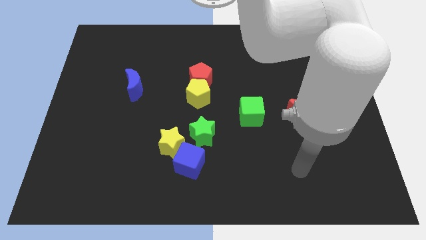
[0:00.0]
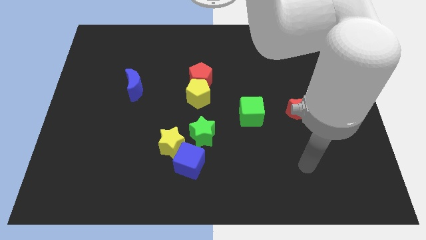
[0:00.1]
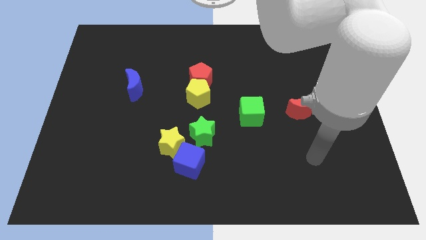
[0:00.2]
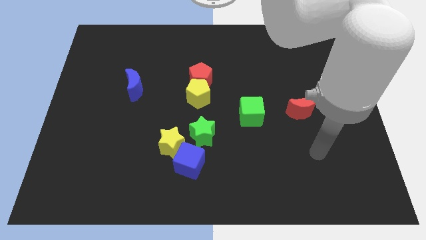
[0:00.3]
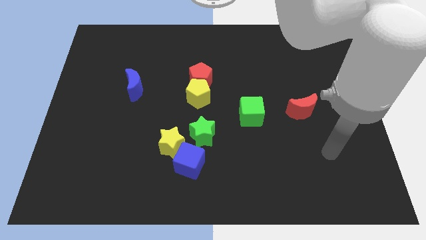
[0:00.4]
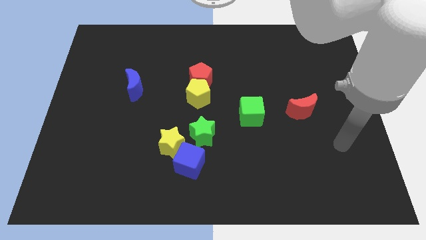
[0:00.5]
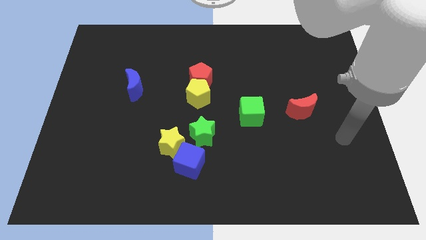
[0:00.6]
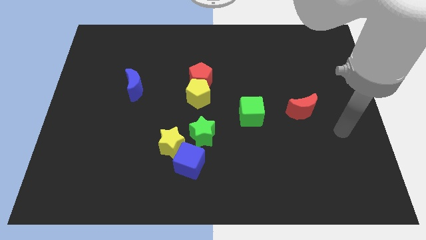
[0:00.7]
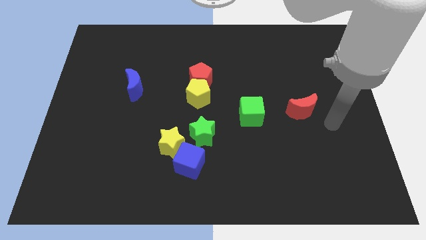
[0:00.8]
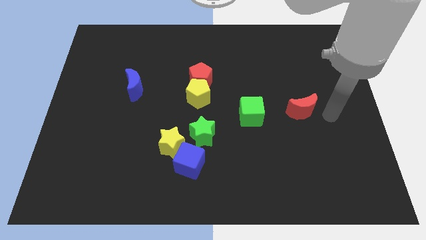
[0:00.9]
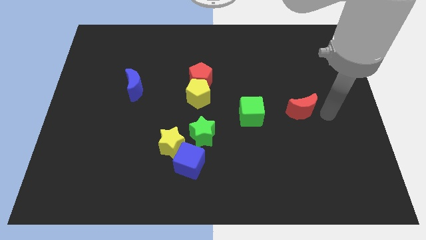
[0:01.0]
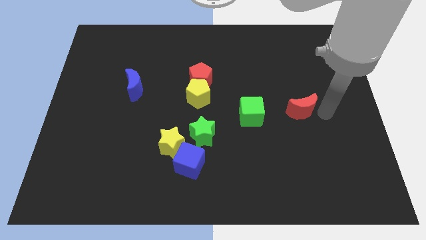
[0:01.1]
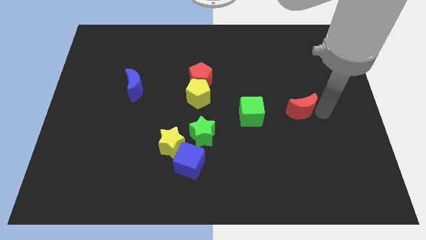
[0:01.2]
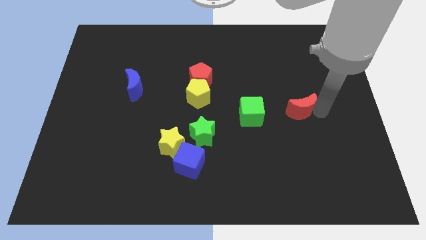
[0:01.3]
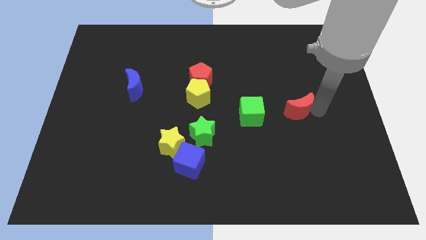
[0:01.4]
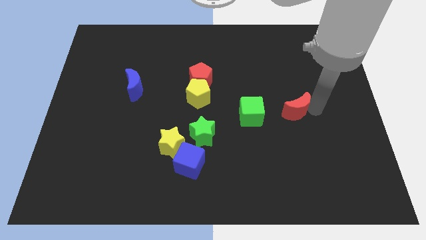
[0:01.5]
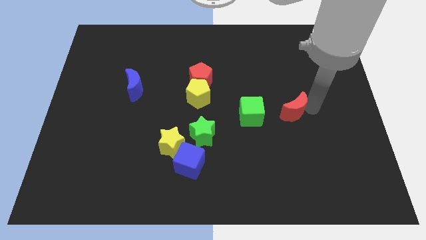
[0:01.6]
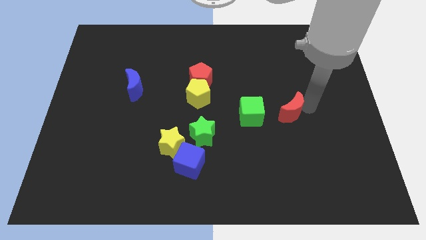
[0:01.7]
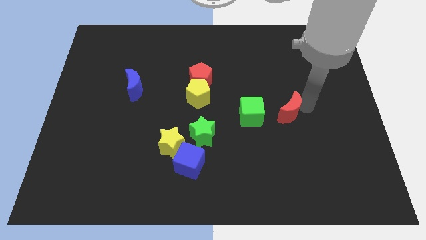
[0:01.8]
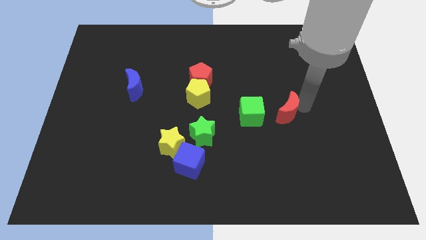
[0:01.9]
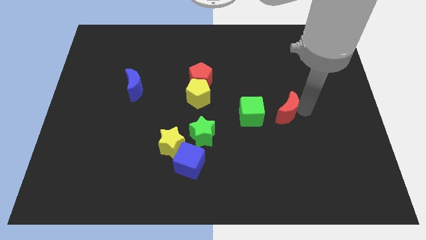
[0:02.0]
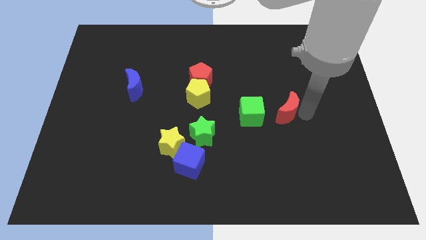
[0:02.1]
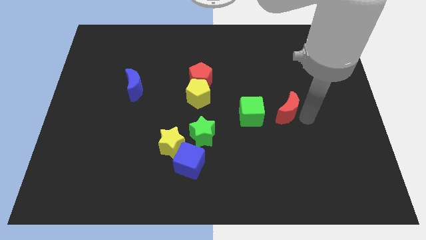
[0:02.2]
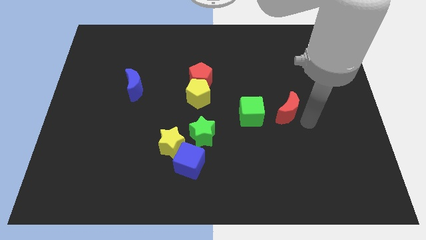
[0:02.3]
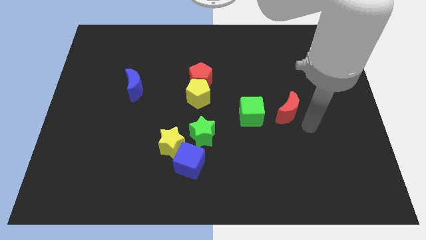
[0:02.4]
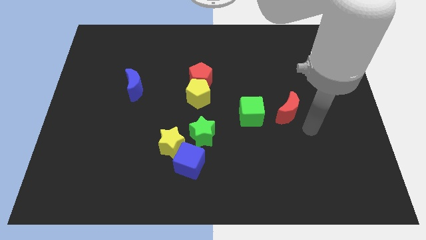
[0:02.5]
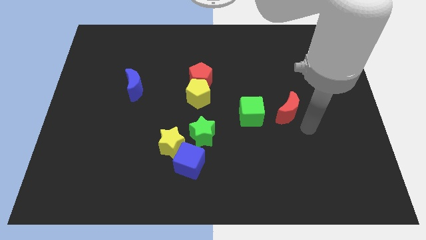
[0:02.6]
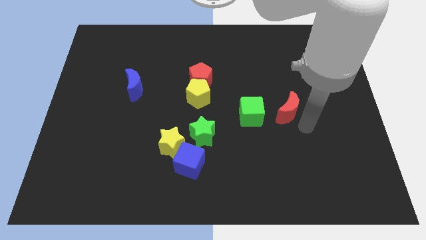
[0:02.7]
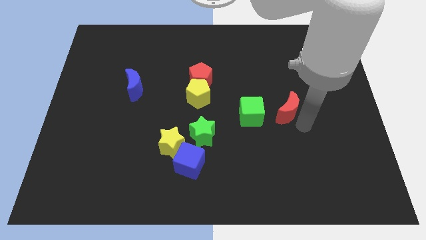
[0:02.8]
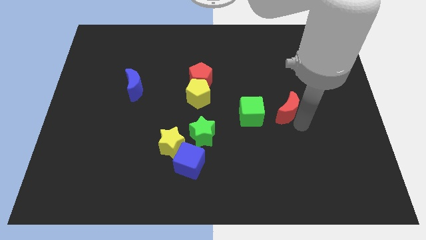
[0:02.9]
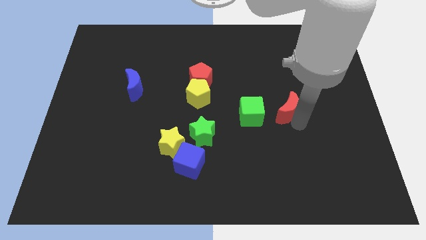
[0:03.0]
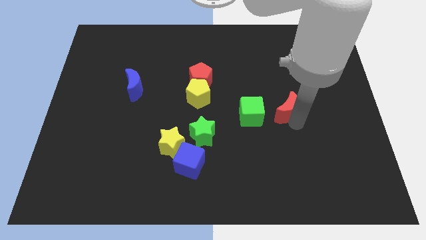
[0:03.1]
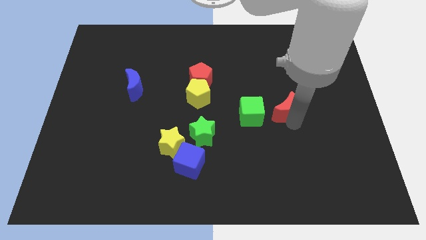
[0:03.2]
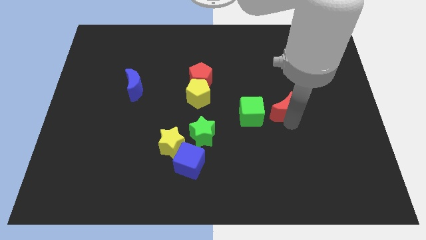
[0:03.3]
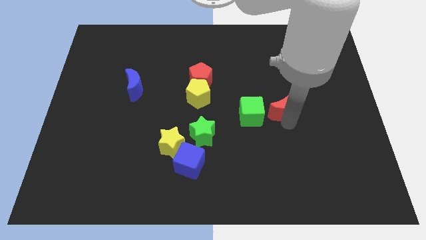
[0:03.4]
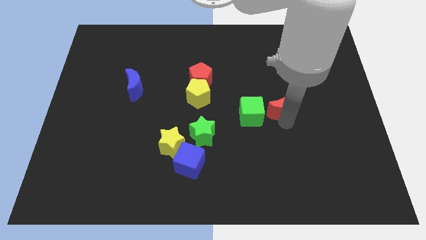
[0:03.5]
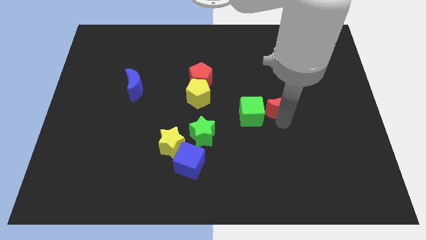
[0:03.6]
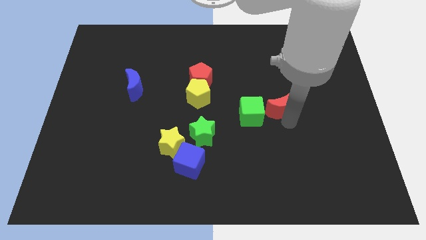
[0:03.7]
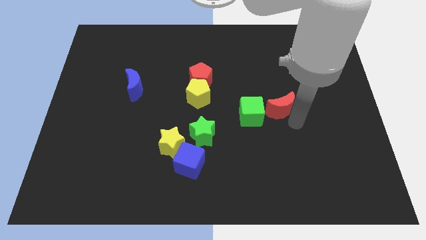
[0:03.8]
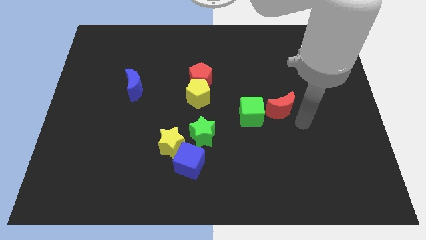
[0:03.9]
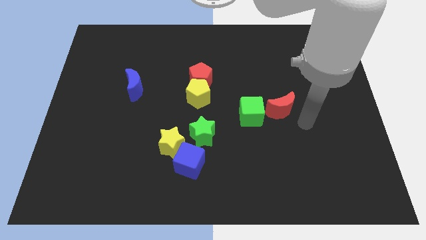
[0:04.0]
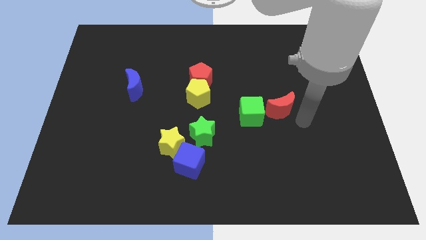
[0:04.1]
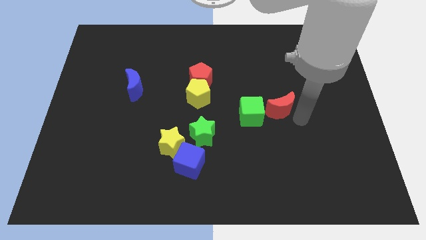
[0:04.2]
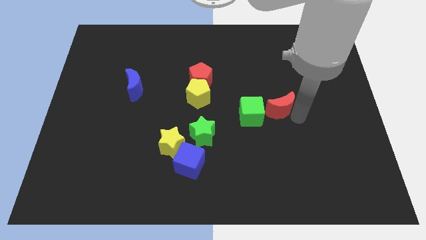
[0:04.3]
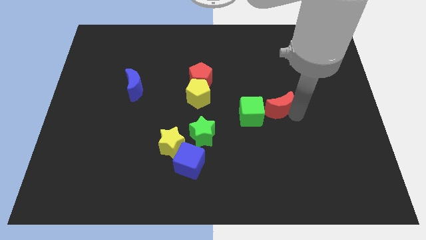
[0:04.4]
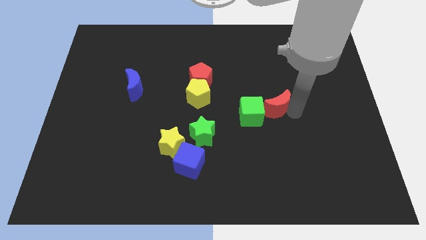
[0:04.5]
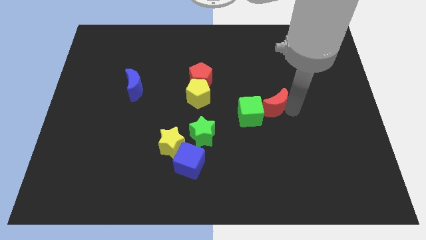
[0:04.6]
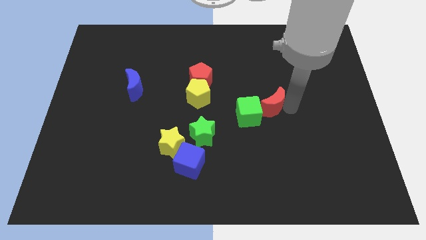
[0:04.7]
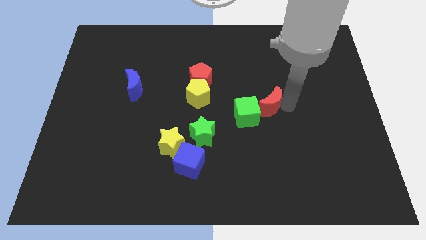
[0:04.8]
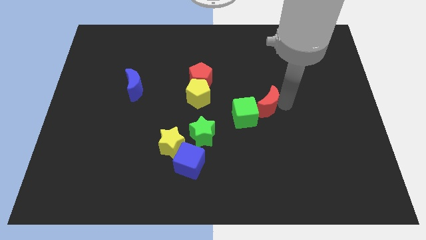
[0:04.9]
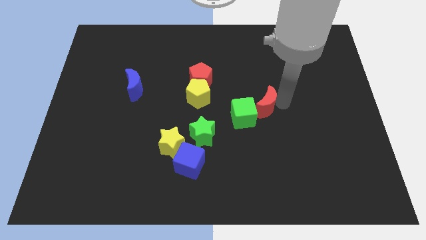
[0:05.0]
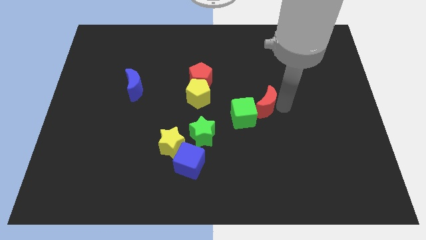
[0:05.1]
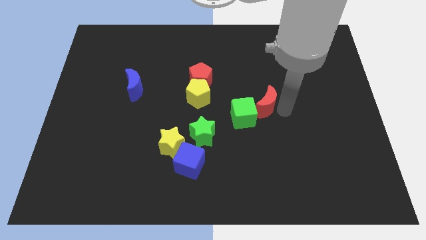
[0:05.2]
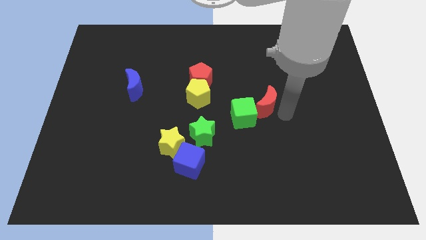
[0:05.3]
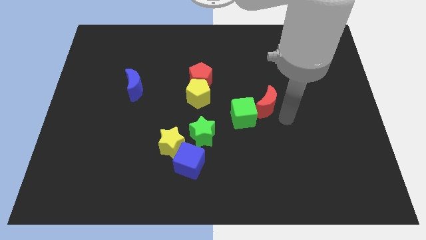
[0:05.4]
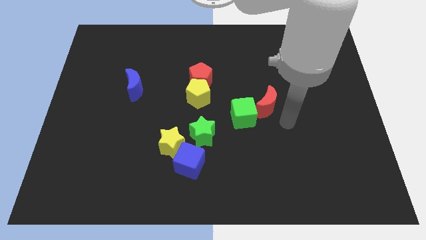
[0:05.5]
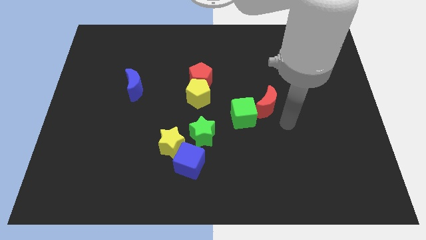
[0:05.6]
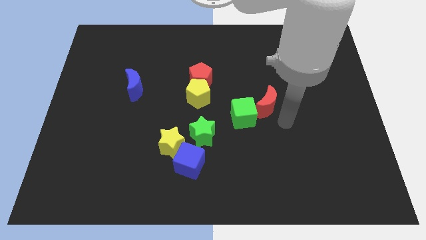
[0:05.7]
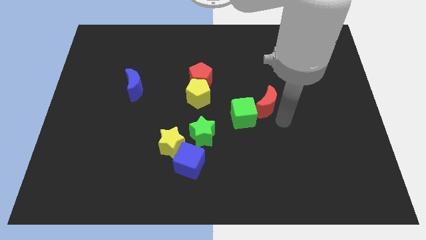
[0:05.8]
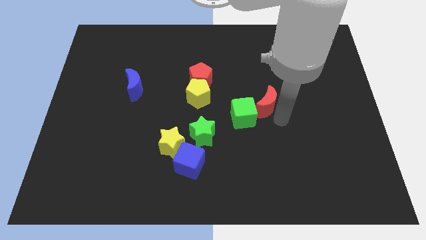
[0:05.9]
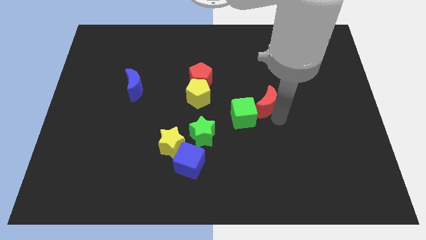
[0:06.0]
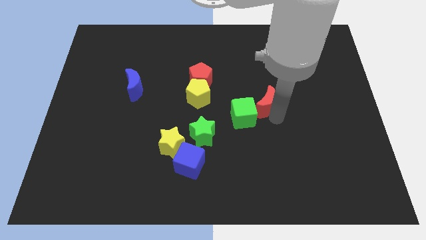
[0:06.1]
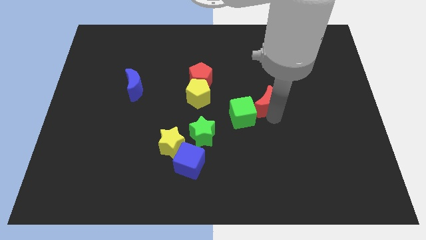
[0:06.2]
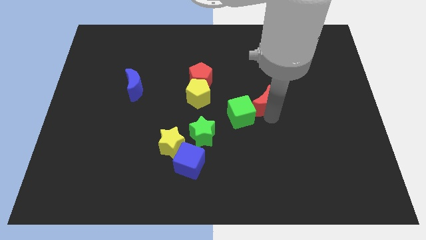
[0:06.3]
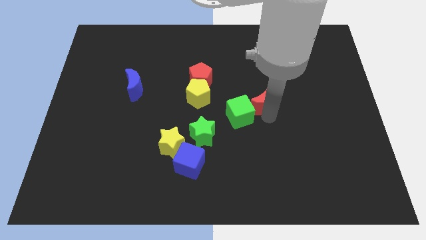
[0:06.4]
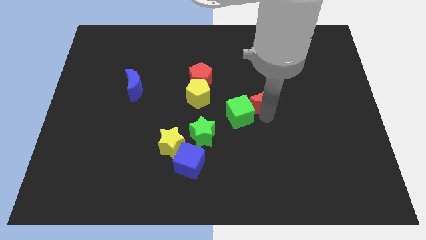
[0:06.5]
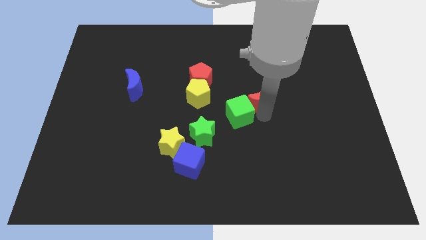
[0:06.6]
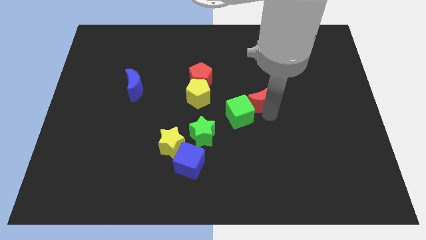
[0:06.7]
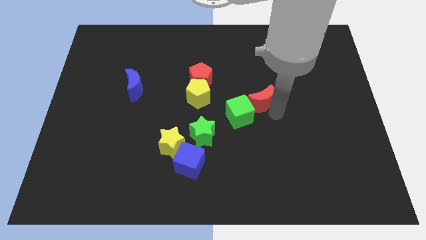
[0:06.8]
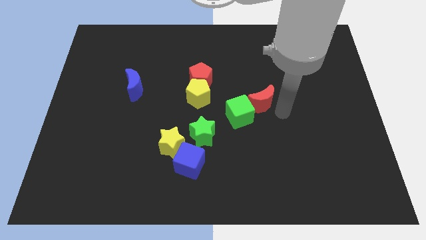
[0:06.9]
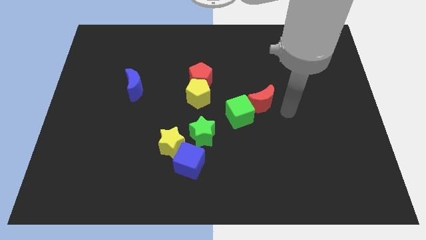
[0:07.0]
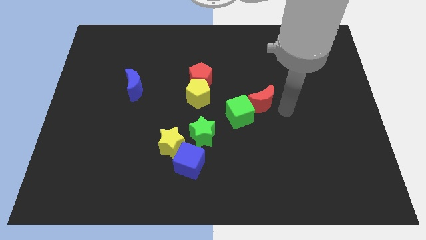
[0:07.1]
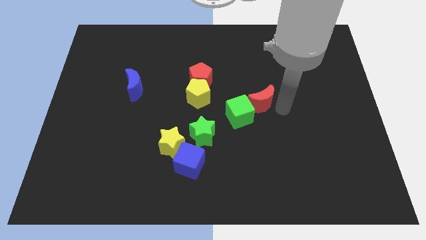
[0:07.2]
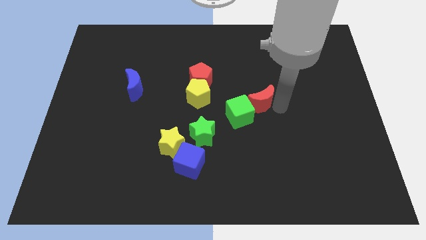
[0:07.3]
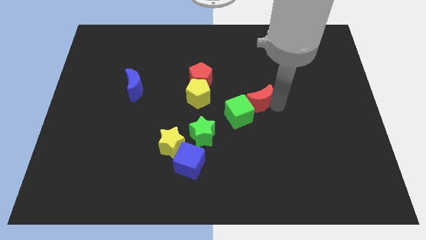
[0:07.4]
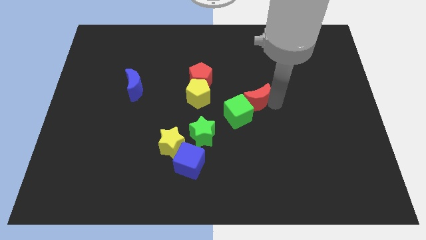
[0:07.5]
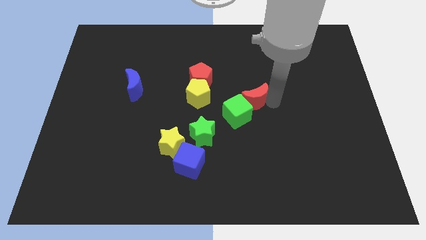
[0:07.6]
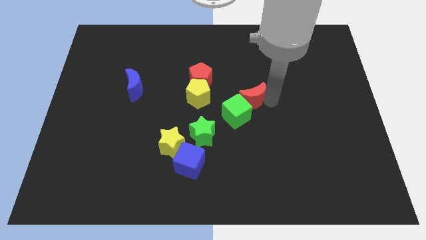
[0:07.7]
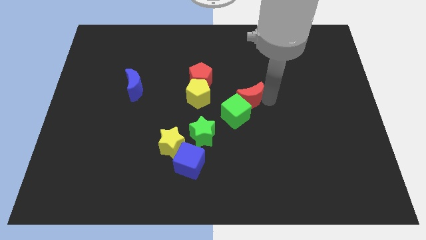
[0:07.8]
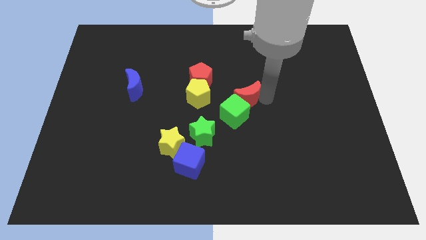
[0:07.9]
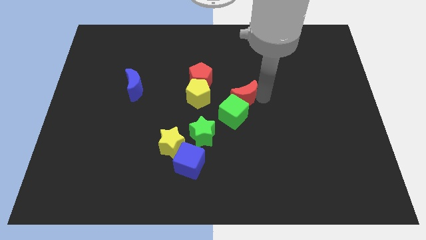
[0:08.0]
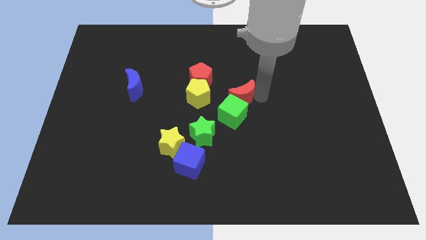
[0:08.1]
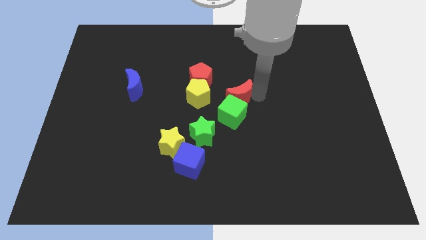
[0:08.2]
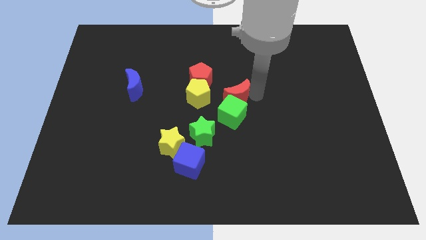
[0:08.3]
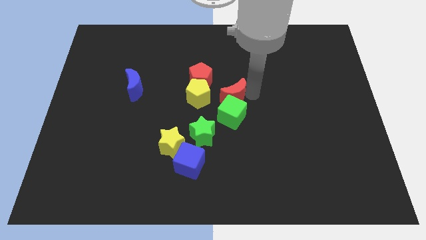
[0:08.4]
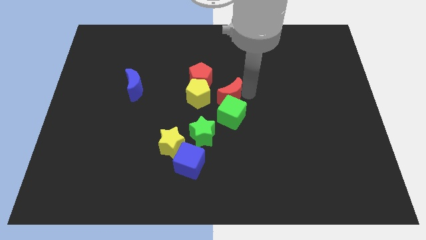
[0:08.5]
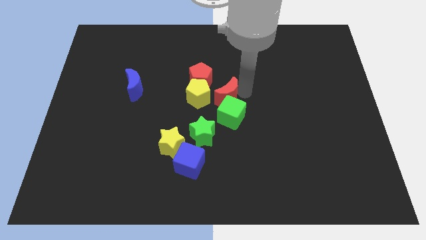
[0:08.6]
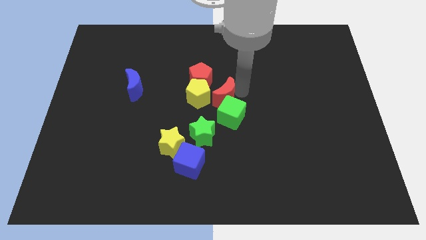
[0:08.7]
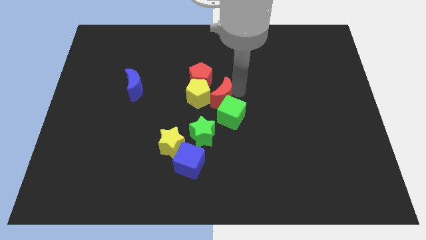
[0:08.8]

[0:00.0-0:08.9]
push the red moon next to the yellow pentagon
